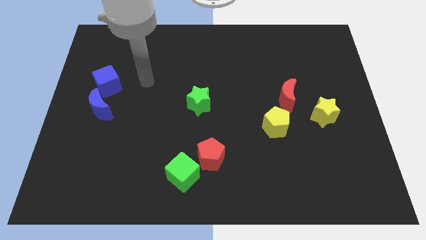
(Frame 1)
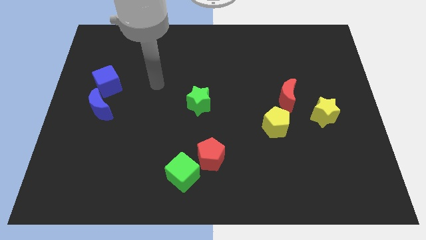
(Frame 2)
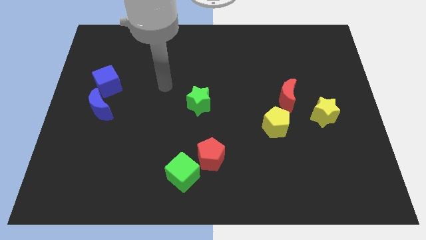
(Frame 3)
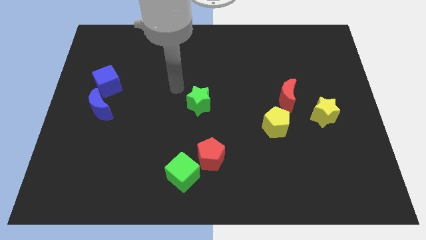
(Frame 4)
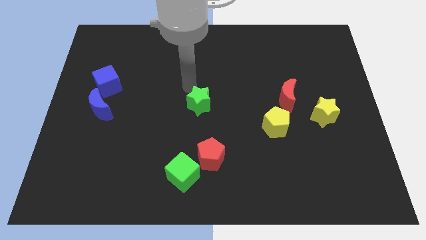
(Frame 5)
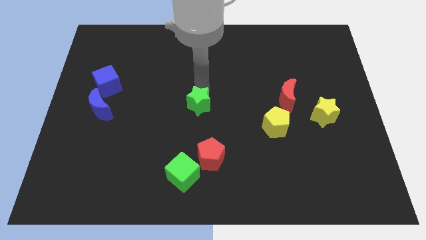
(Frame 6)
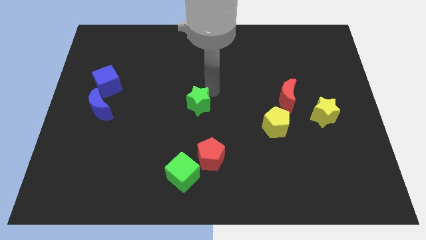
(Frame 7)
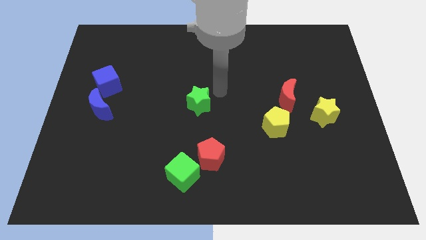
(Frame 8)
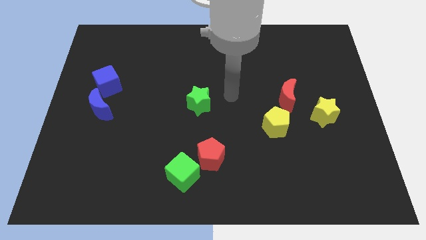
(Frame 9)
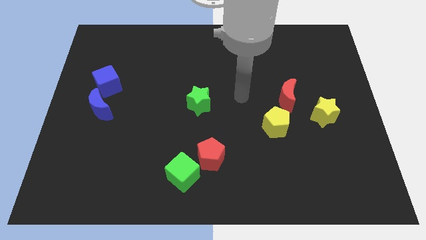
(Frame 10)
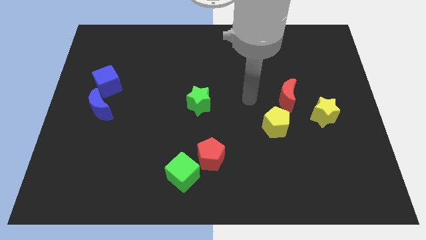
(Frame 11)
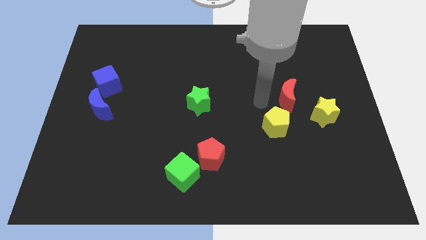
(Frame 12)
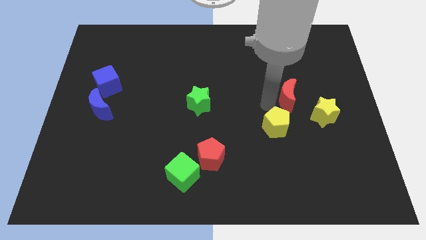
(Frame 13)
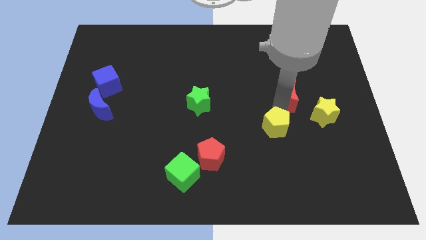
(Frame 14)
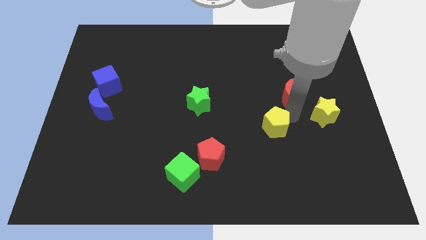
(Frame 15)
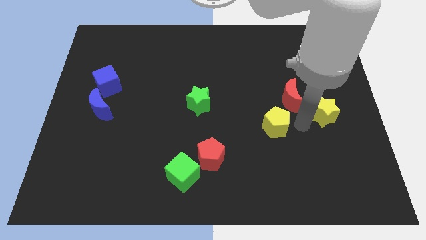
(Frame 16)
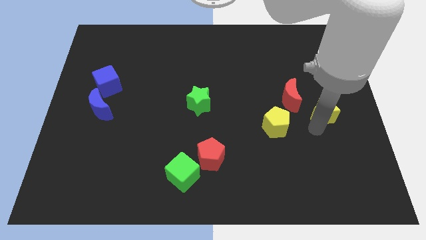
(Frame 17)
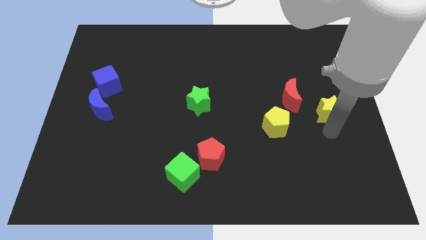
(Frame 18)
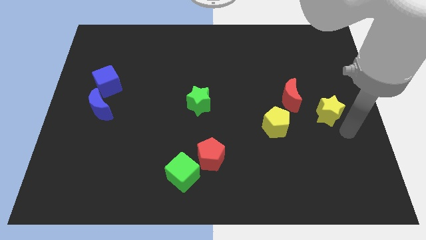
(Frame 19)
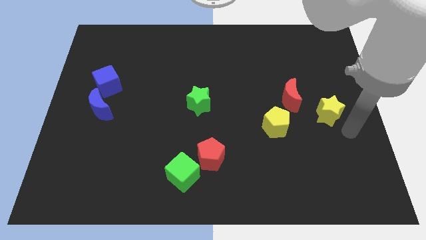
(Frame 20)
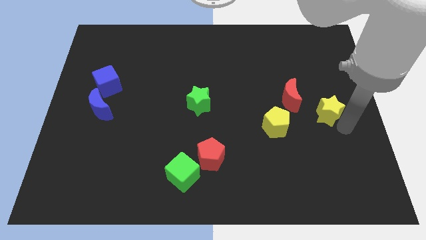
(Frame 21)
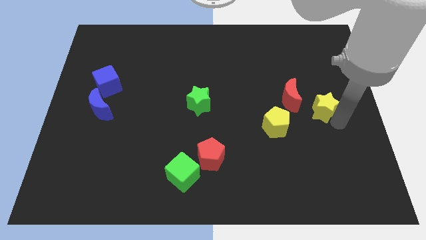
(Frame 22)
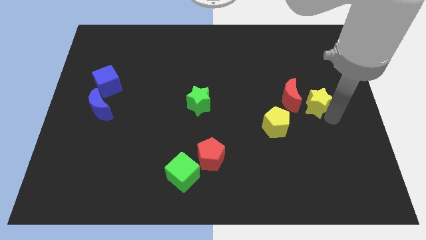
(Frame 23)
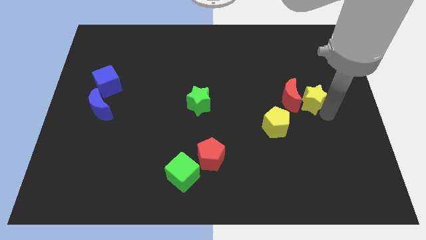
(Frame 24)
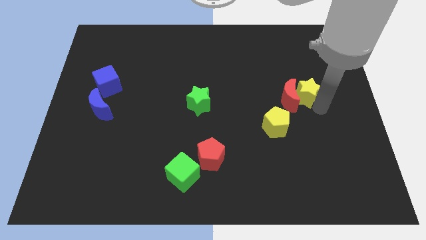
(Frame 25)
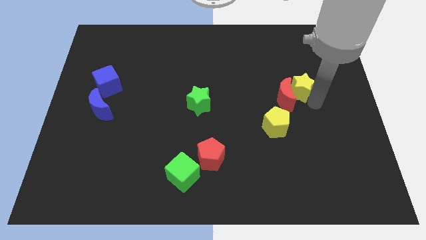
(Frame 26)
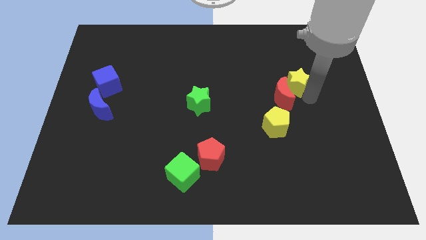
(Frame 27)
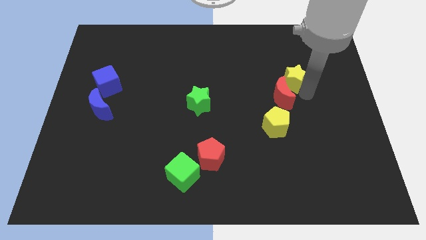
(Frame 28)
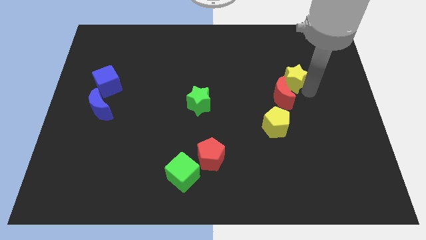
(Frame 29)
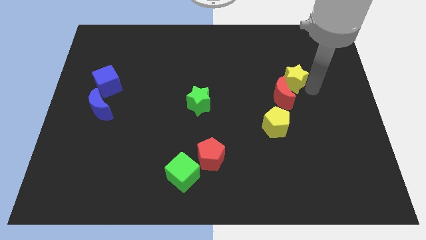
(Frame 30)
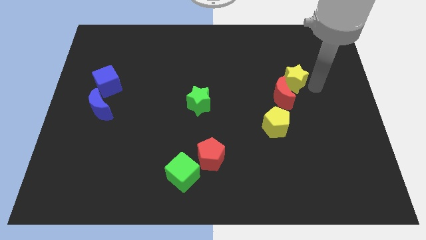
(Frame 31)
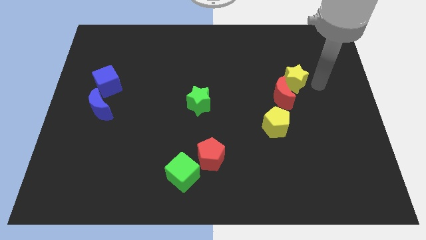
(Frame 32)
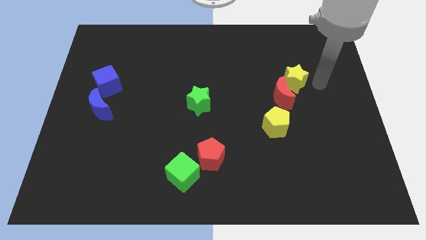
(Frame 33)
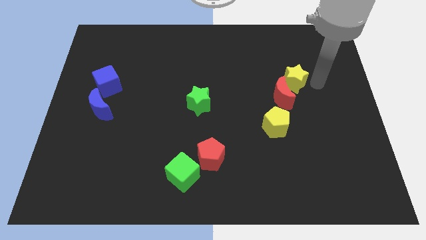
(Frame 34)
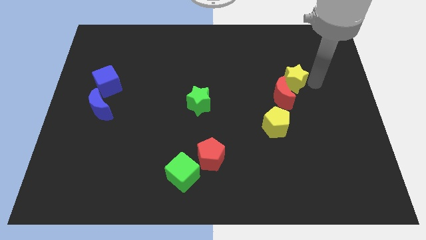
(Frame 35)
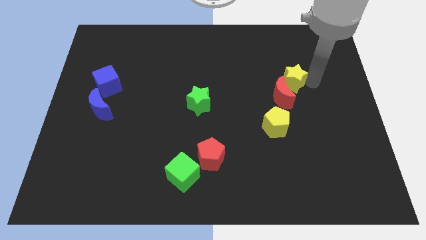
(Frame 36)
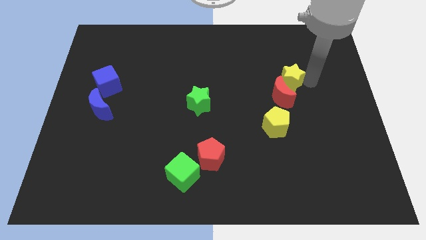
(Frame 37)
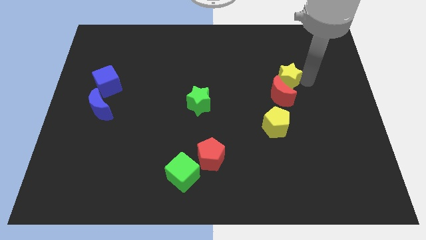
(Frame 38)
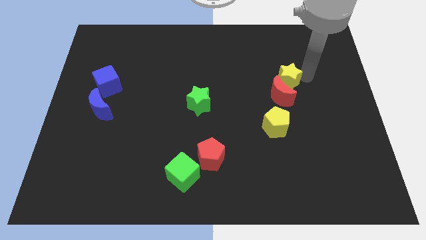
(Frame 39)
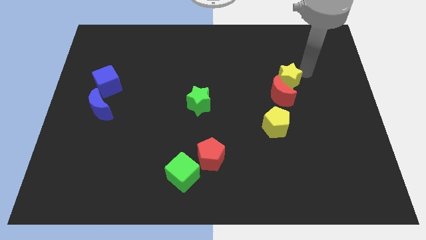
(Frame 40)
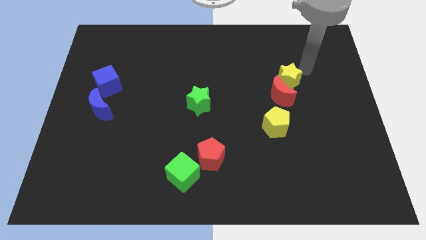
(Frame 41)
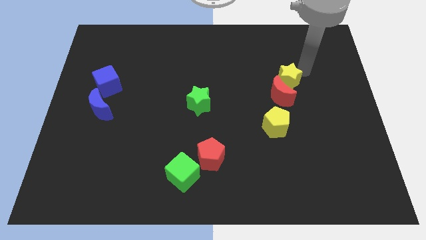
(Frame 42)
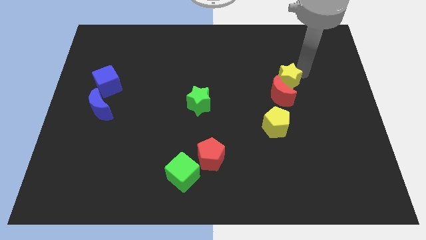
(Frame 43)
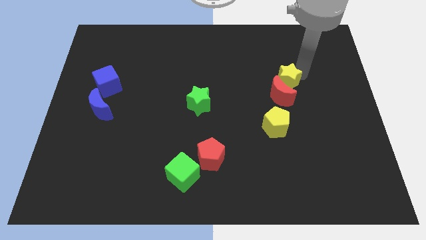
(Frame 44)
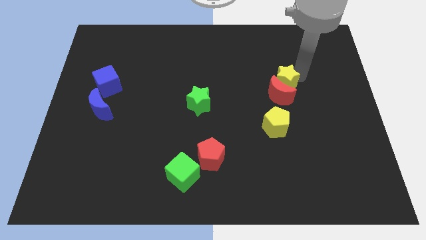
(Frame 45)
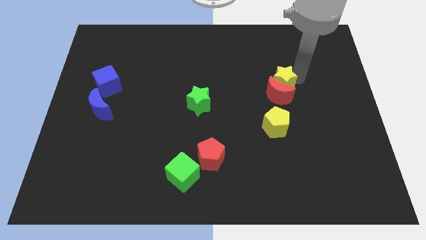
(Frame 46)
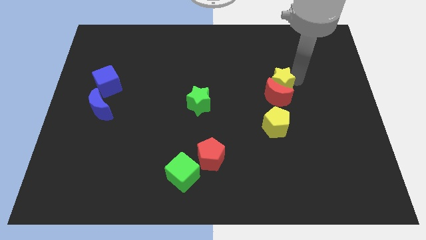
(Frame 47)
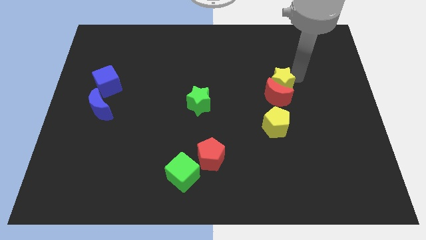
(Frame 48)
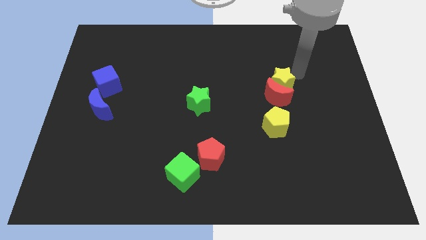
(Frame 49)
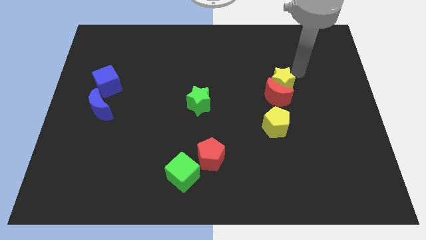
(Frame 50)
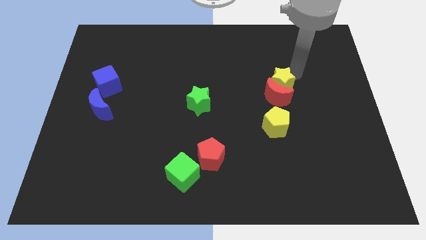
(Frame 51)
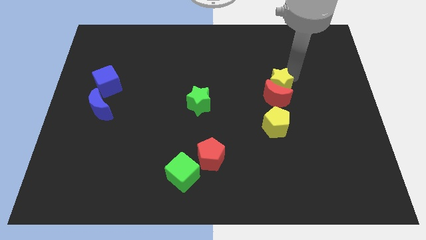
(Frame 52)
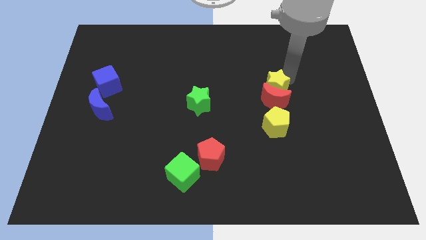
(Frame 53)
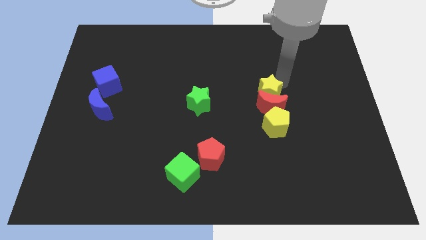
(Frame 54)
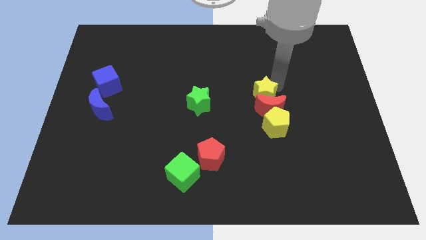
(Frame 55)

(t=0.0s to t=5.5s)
push the yellow star diagonally up and to the left of the yellow pentagon

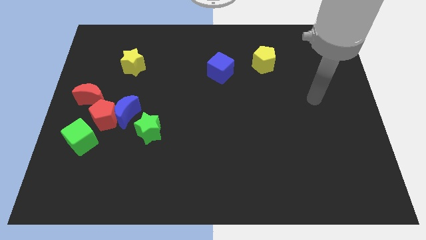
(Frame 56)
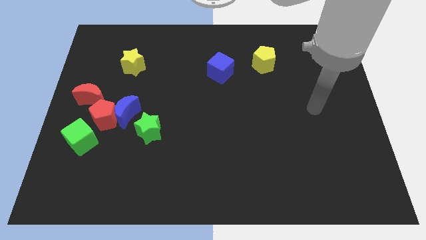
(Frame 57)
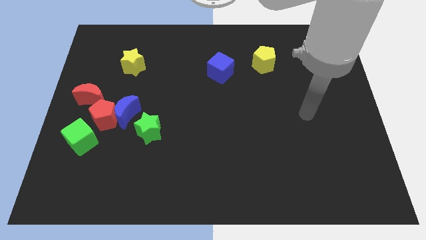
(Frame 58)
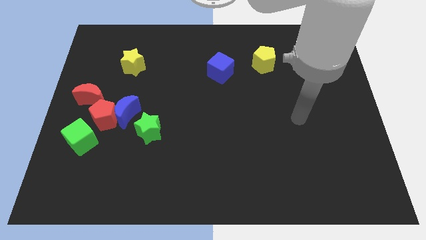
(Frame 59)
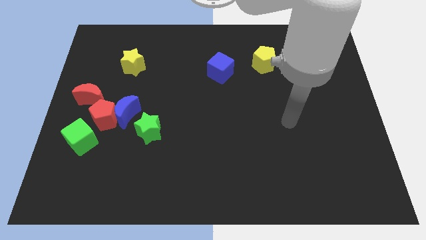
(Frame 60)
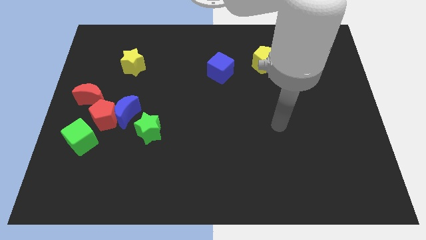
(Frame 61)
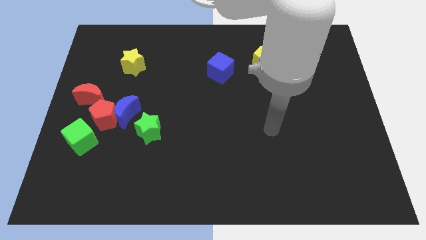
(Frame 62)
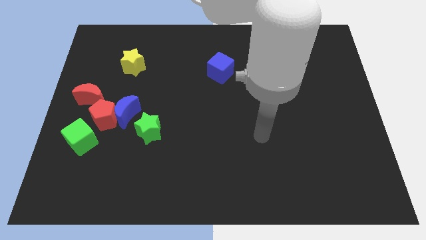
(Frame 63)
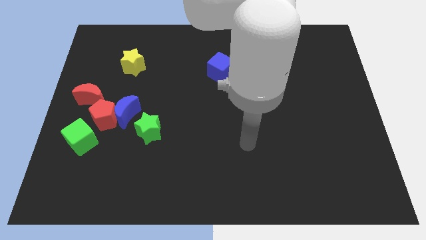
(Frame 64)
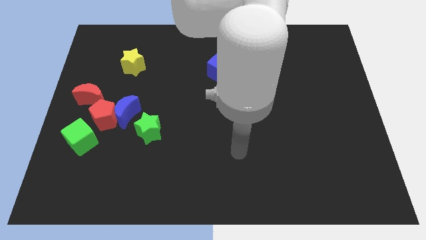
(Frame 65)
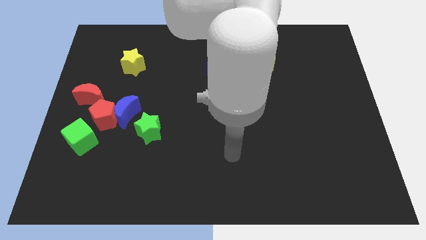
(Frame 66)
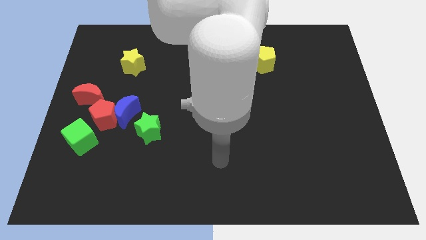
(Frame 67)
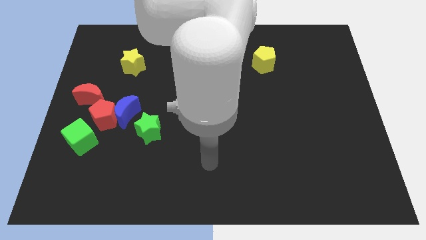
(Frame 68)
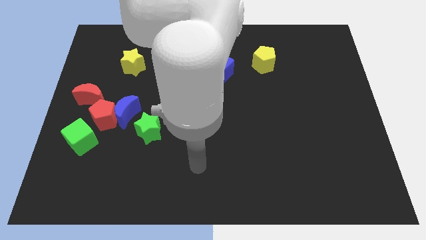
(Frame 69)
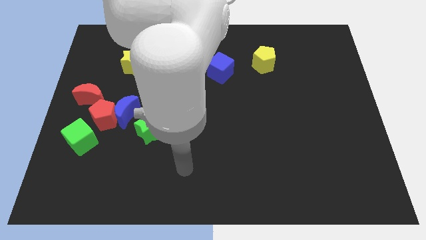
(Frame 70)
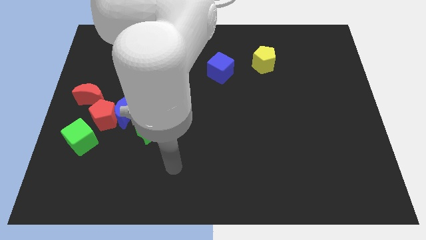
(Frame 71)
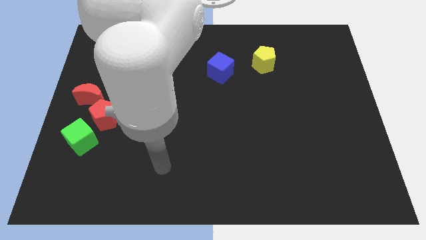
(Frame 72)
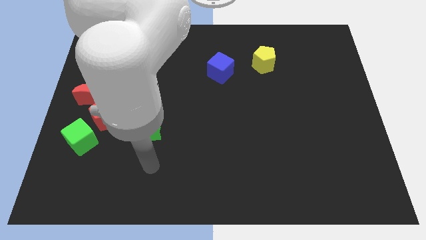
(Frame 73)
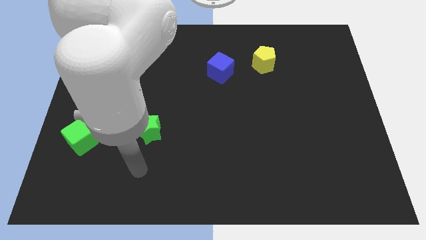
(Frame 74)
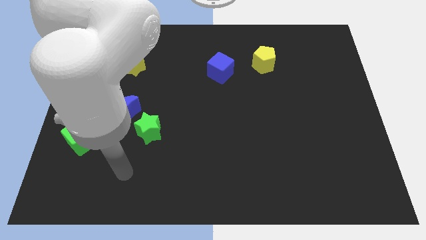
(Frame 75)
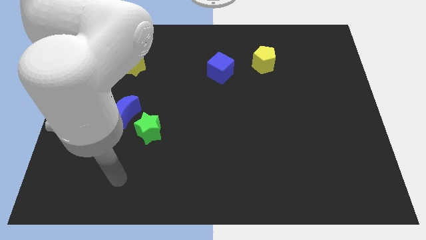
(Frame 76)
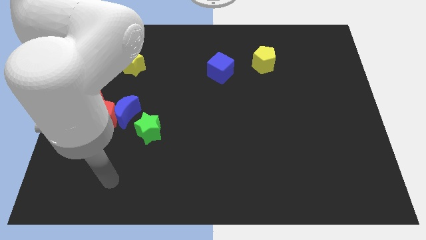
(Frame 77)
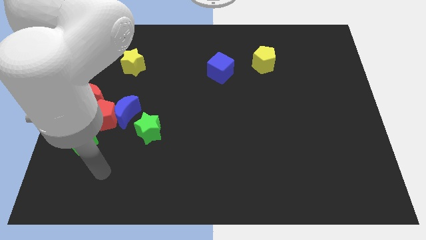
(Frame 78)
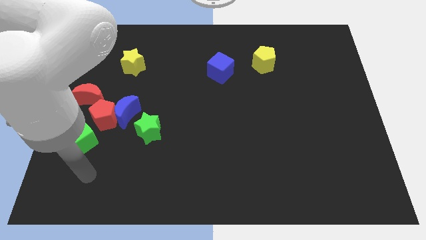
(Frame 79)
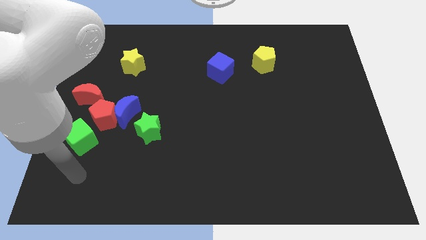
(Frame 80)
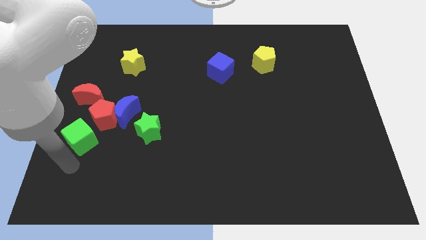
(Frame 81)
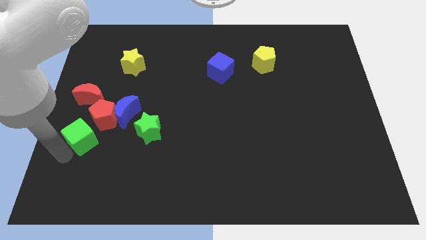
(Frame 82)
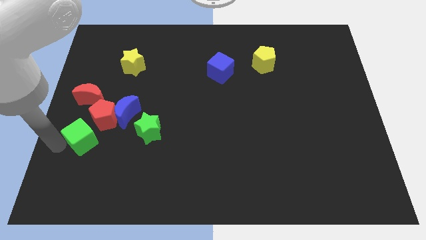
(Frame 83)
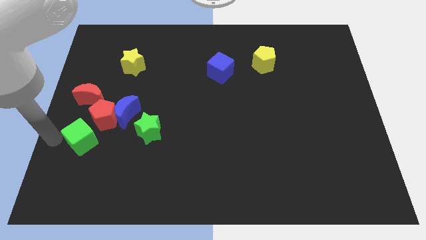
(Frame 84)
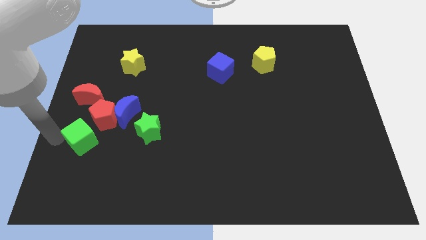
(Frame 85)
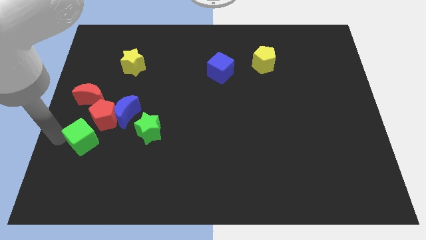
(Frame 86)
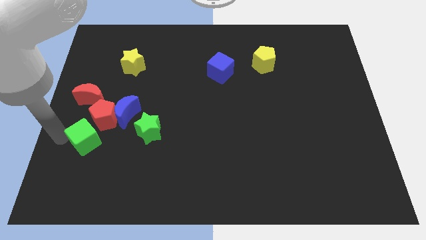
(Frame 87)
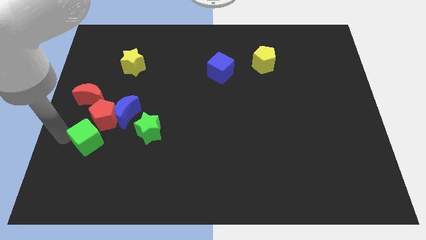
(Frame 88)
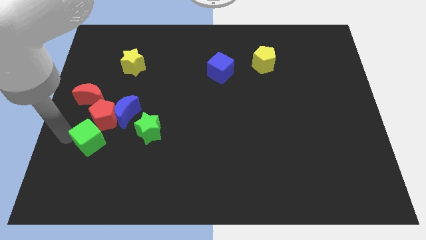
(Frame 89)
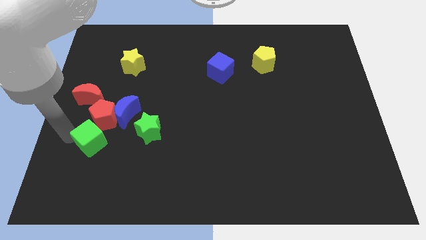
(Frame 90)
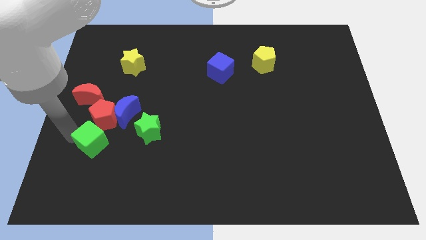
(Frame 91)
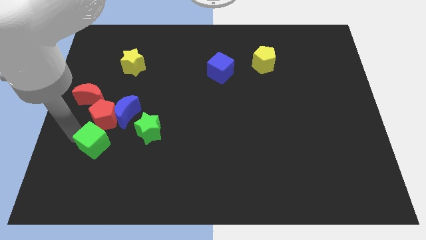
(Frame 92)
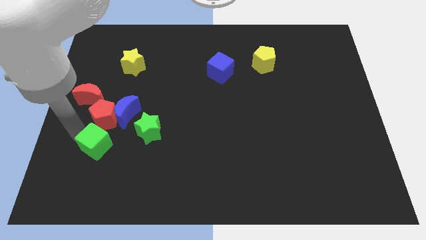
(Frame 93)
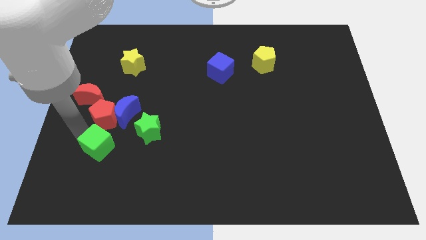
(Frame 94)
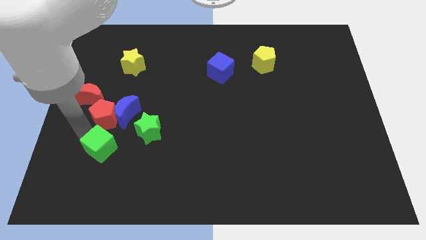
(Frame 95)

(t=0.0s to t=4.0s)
move the green cube to the bottom right side of the red pentagon
